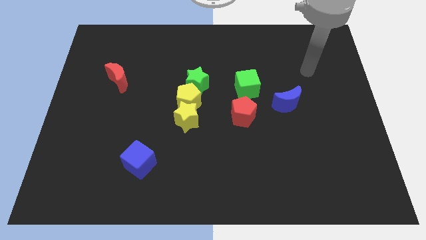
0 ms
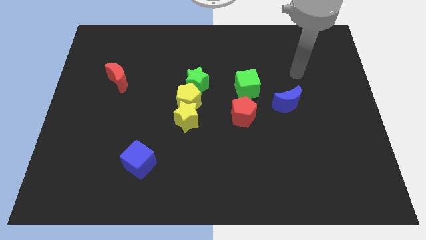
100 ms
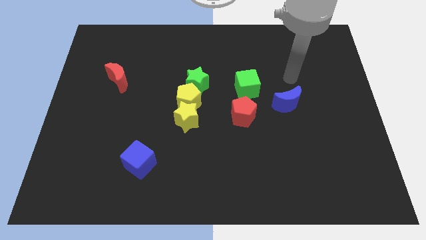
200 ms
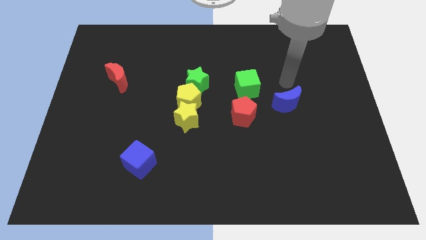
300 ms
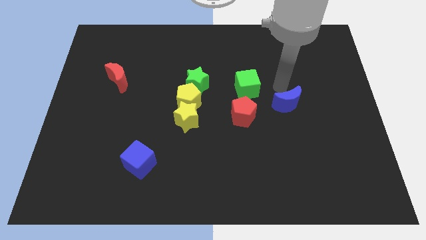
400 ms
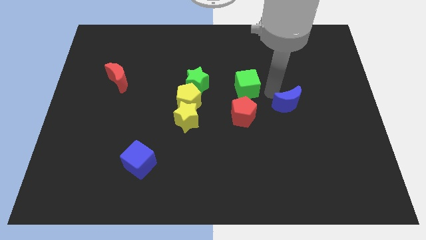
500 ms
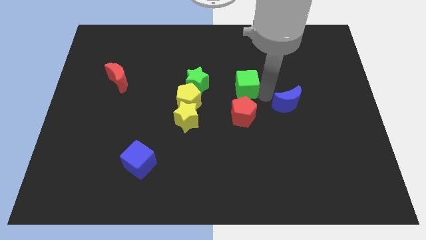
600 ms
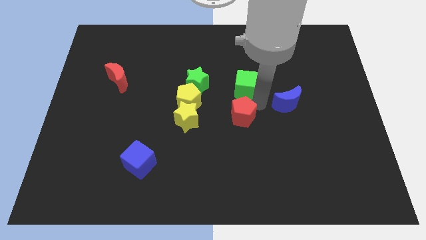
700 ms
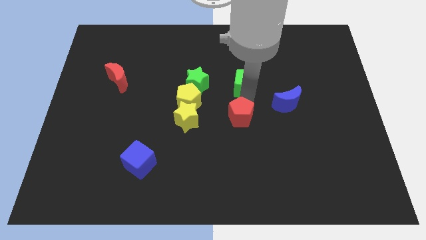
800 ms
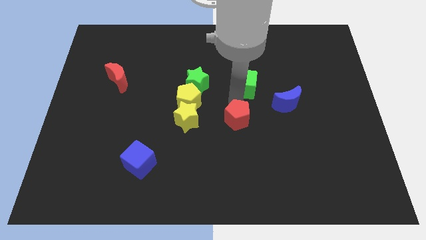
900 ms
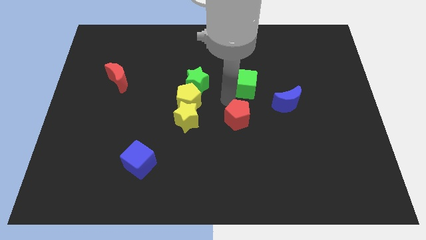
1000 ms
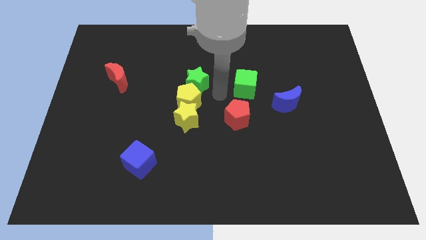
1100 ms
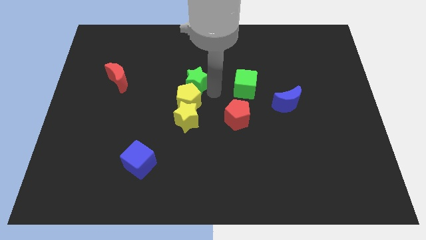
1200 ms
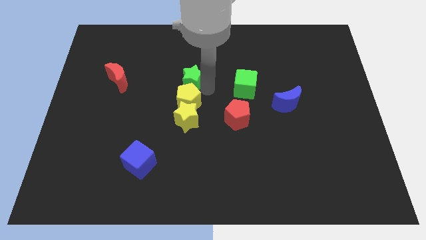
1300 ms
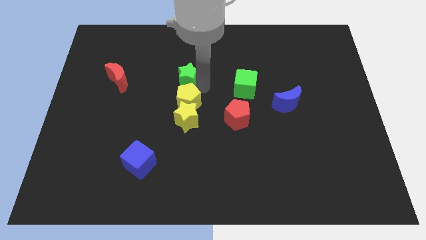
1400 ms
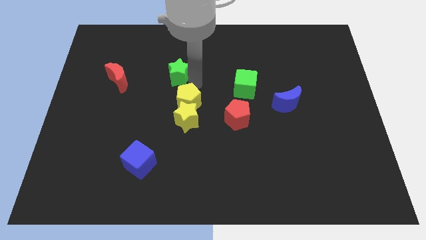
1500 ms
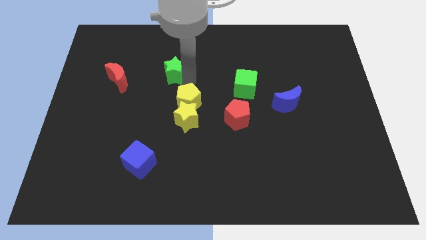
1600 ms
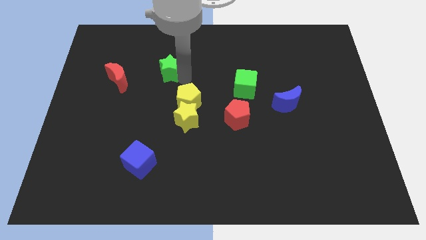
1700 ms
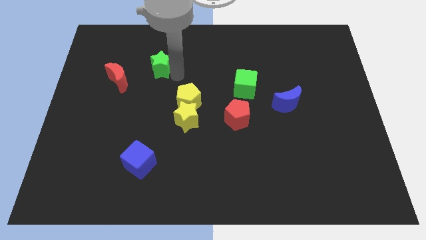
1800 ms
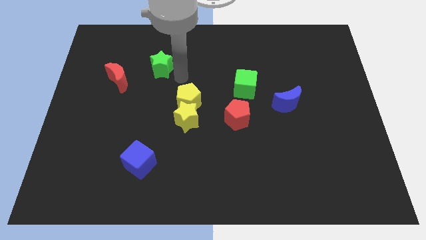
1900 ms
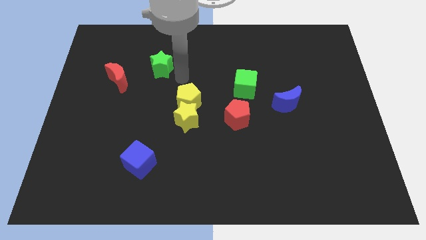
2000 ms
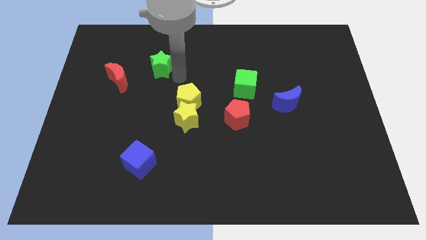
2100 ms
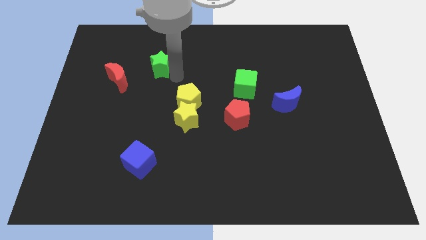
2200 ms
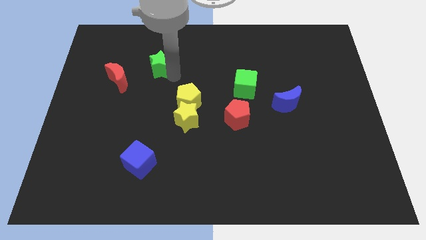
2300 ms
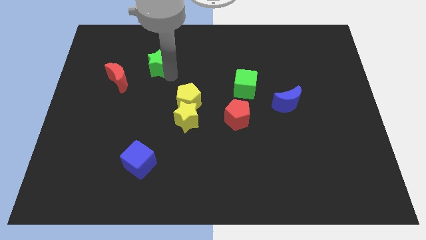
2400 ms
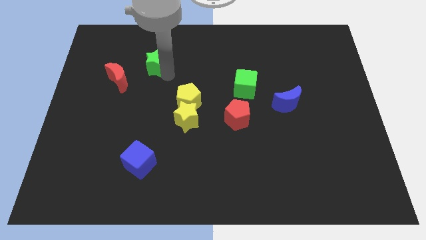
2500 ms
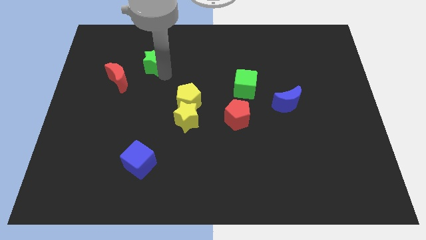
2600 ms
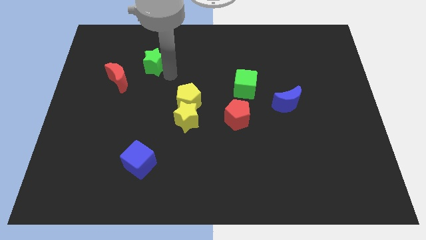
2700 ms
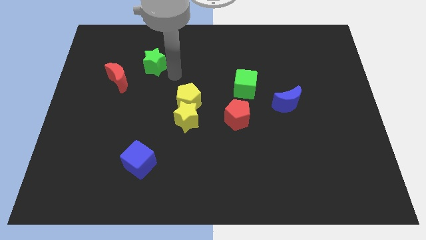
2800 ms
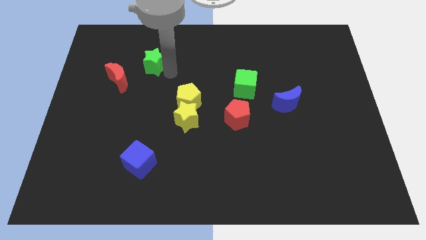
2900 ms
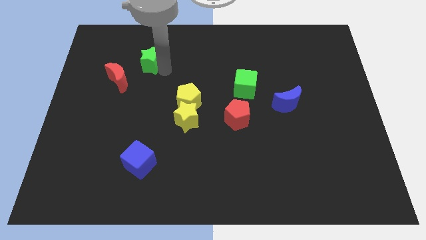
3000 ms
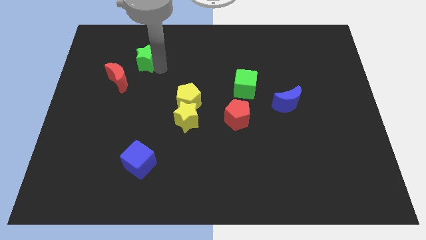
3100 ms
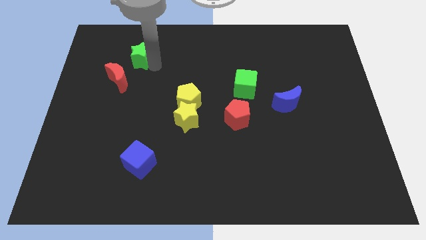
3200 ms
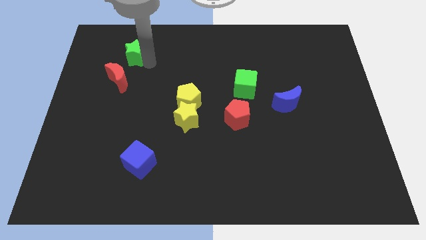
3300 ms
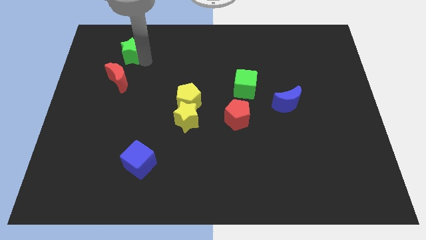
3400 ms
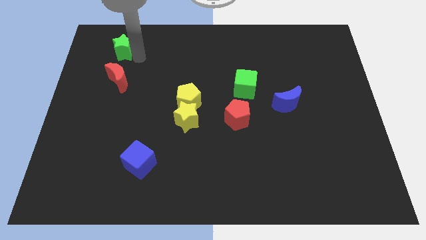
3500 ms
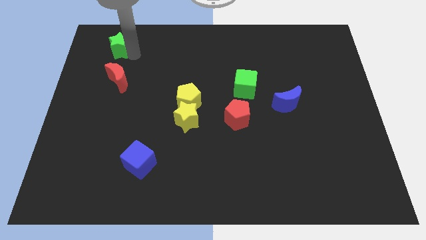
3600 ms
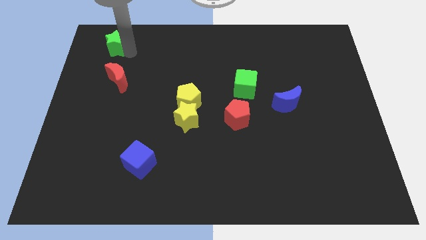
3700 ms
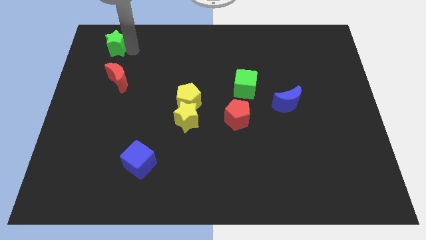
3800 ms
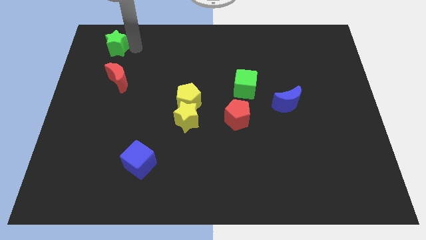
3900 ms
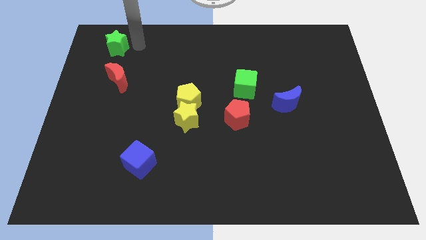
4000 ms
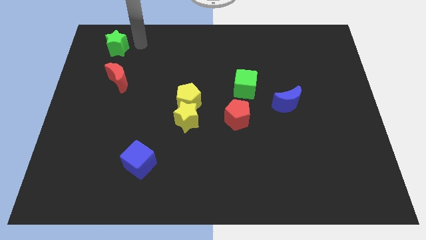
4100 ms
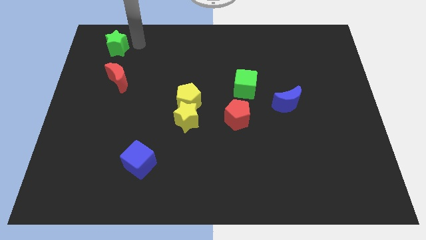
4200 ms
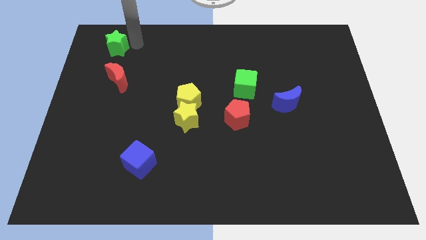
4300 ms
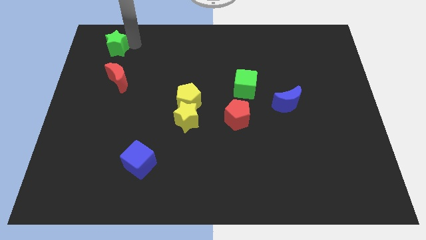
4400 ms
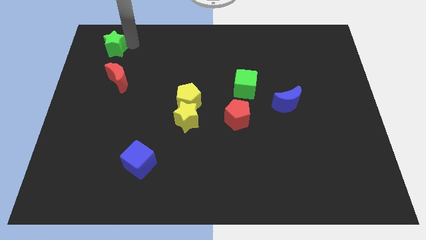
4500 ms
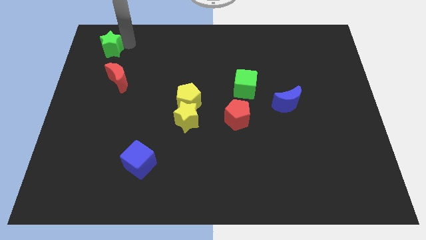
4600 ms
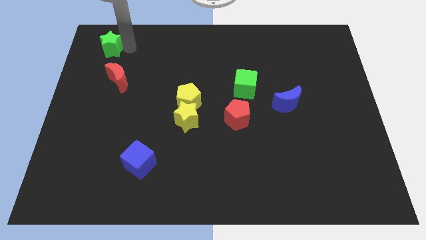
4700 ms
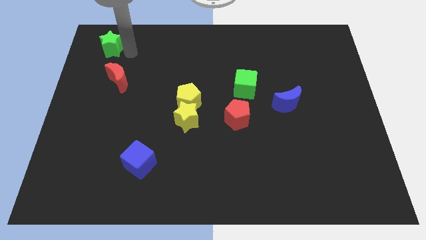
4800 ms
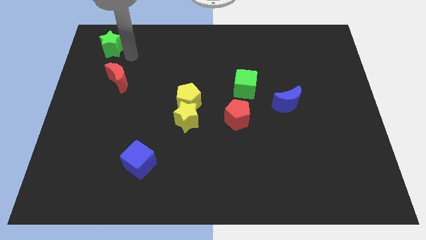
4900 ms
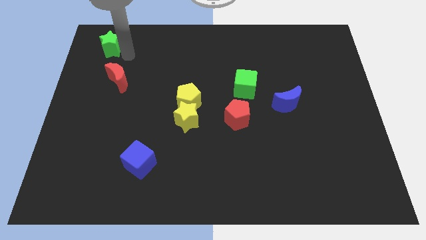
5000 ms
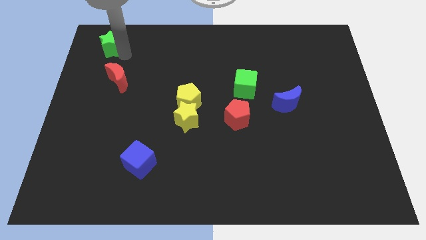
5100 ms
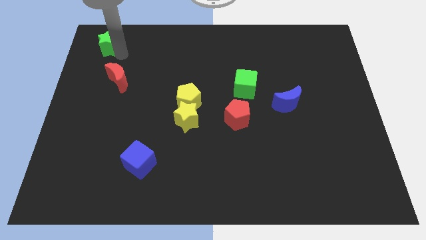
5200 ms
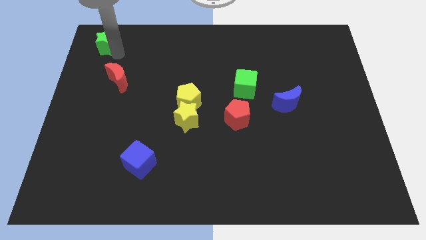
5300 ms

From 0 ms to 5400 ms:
put the green star to the top left corner

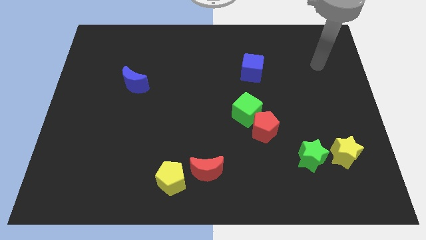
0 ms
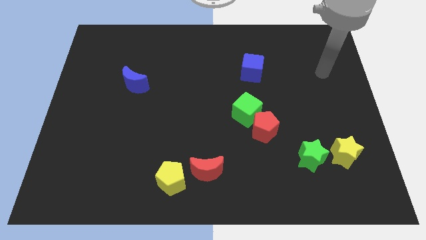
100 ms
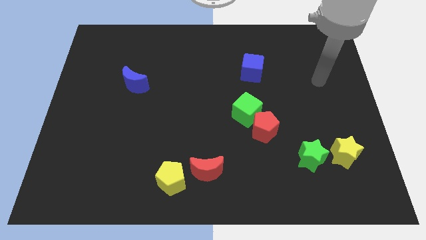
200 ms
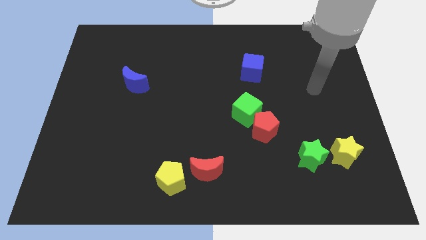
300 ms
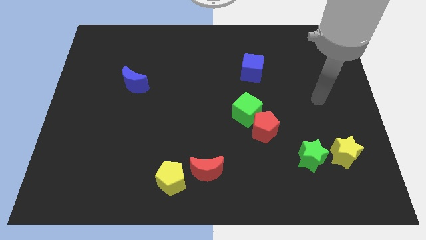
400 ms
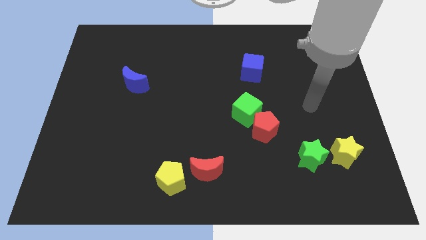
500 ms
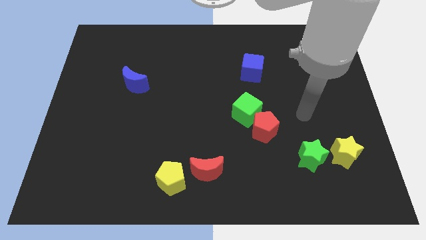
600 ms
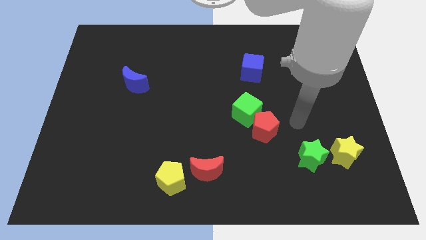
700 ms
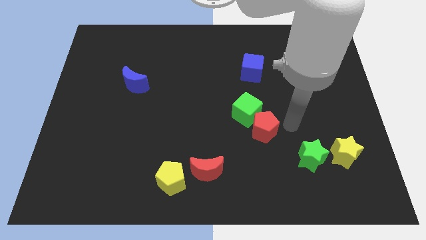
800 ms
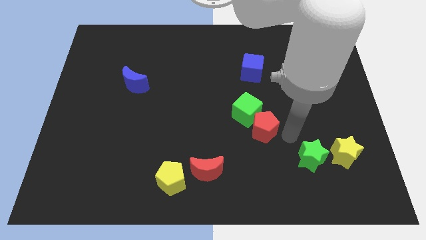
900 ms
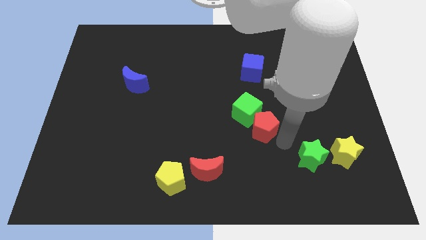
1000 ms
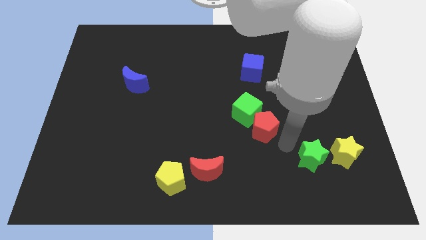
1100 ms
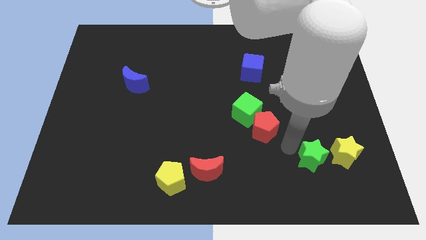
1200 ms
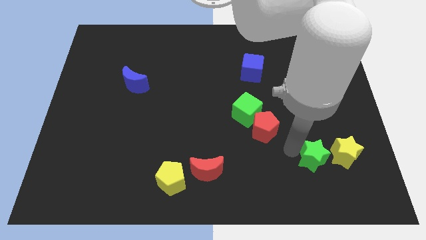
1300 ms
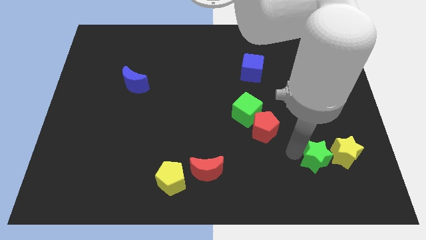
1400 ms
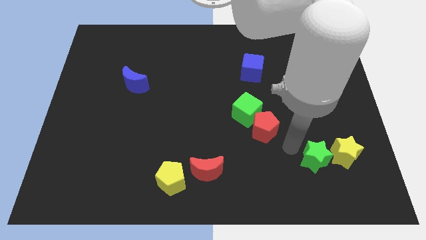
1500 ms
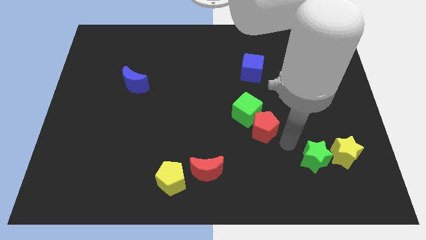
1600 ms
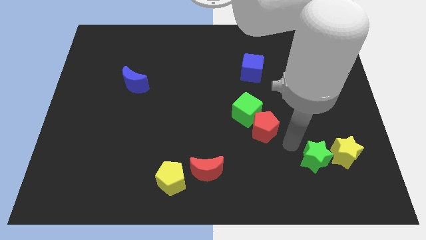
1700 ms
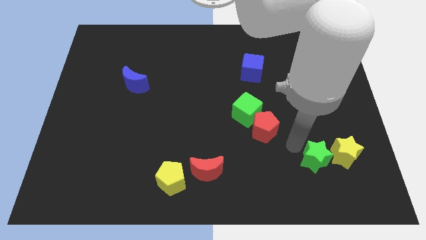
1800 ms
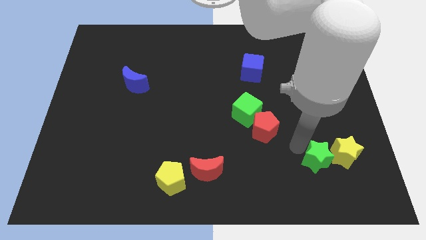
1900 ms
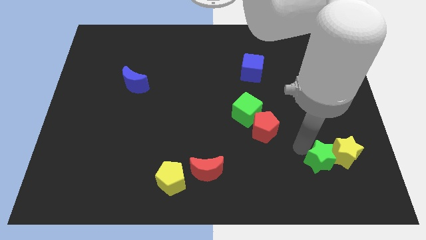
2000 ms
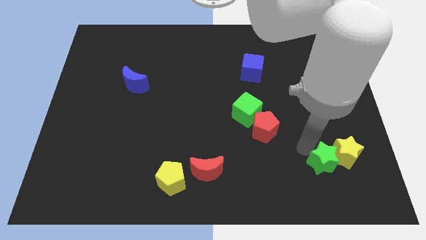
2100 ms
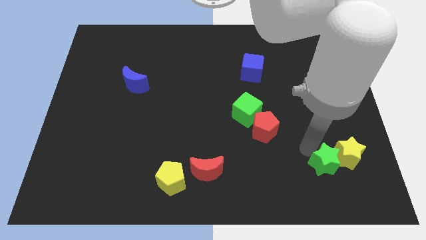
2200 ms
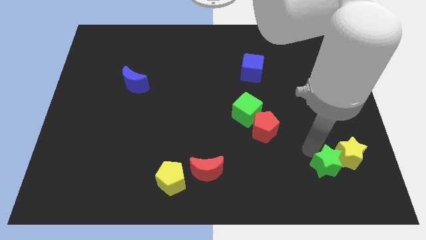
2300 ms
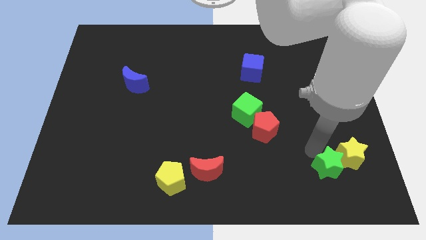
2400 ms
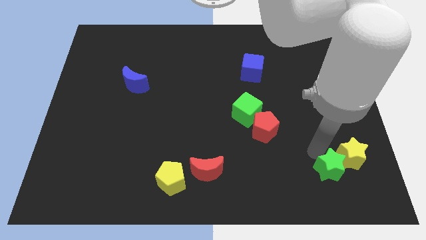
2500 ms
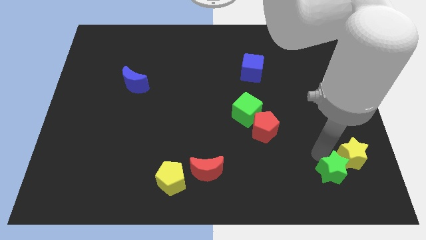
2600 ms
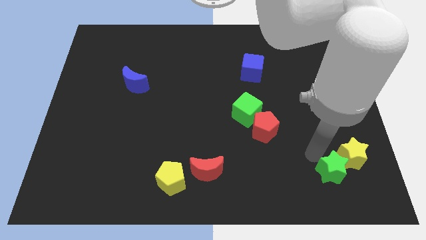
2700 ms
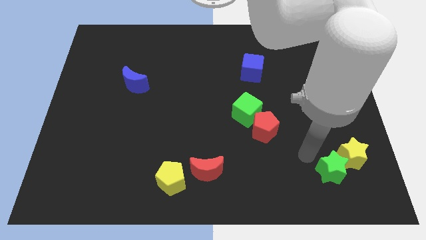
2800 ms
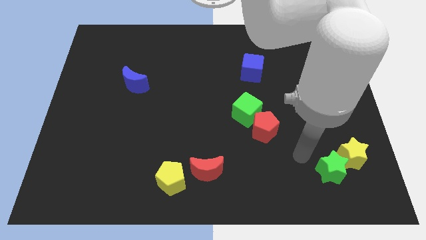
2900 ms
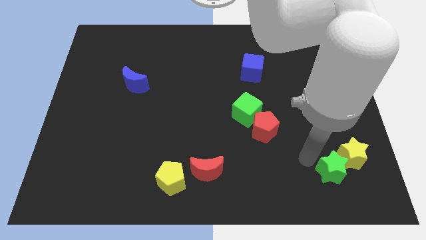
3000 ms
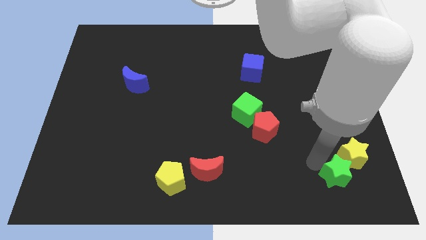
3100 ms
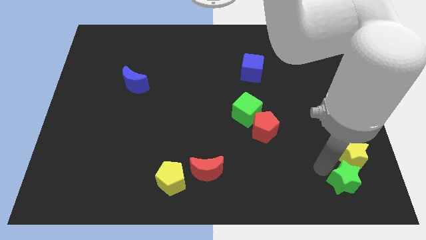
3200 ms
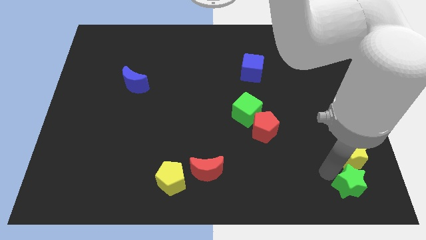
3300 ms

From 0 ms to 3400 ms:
put the green star to the bottom right corner
